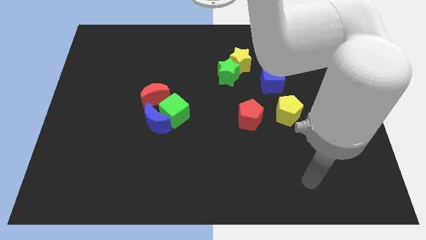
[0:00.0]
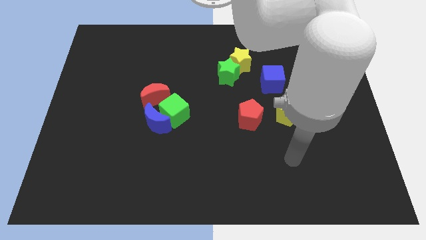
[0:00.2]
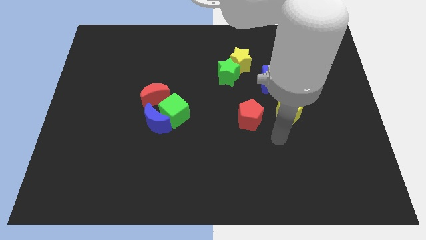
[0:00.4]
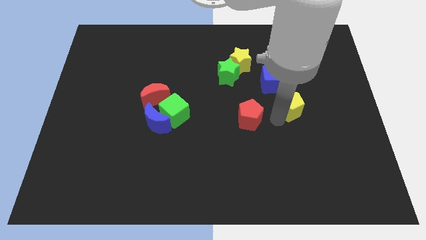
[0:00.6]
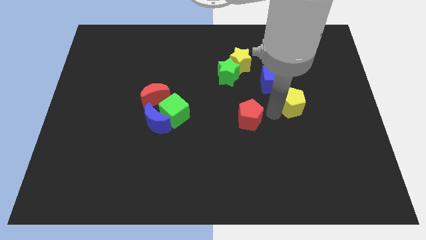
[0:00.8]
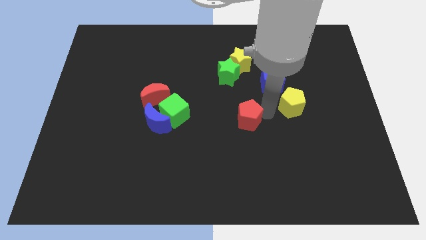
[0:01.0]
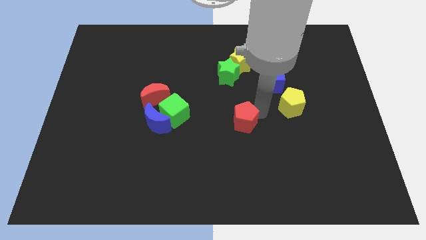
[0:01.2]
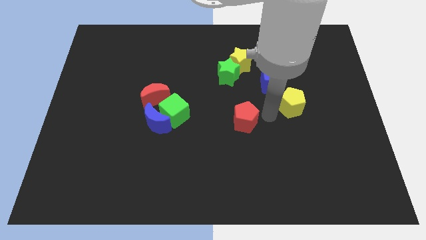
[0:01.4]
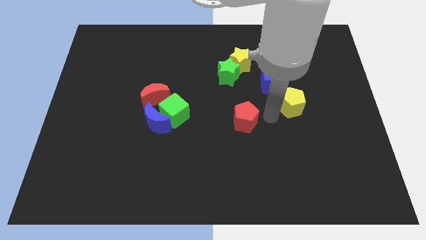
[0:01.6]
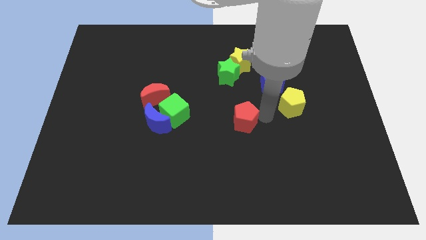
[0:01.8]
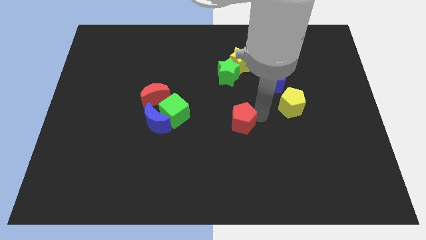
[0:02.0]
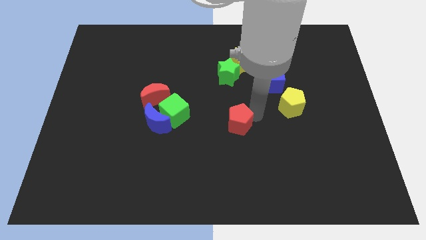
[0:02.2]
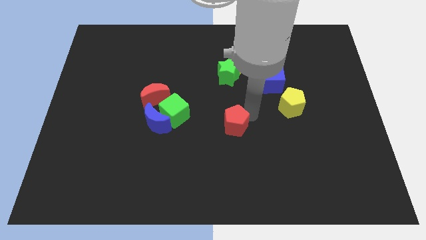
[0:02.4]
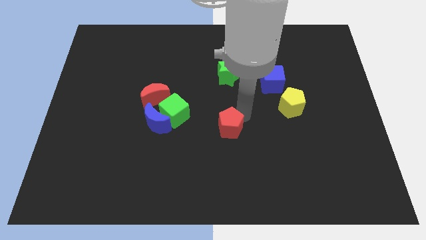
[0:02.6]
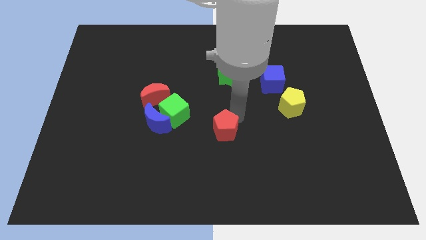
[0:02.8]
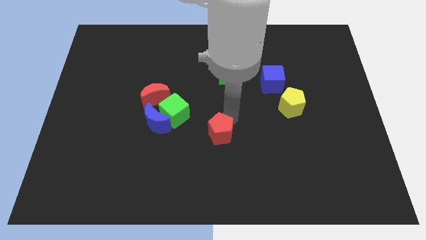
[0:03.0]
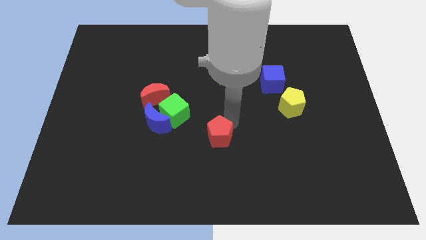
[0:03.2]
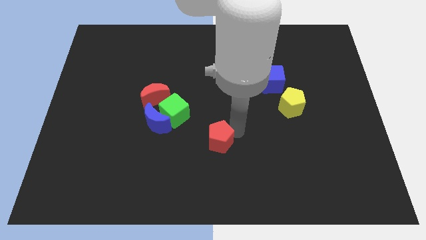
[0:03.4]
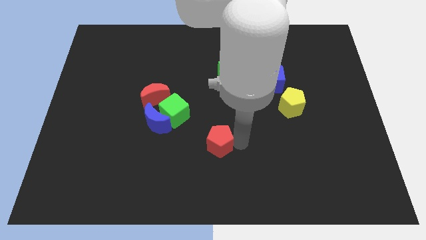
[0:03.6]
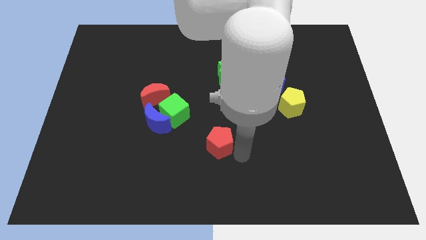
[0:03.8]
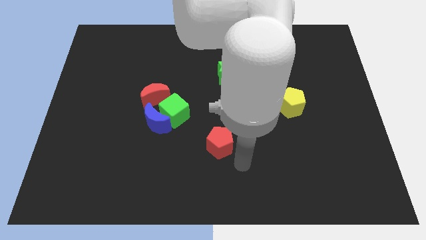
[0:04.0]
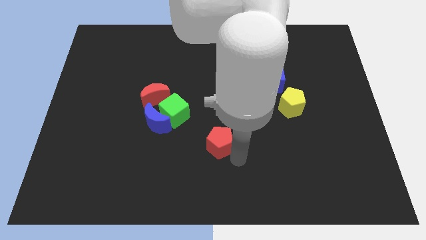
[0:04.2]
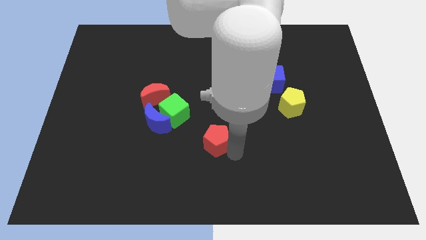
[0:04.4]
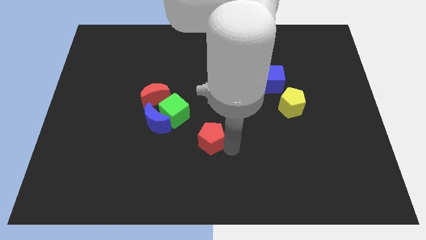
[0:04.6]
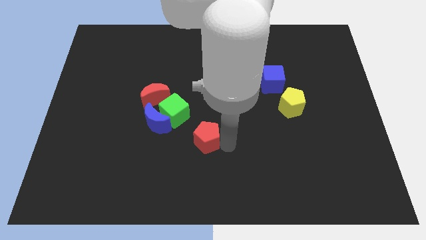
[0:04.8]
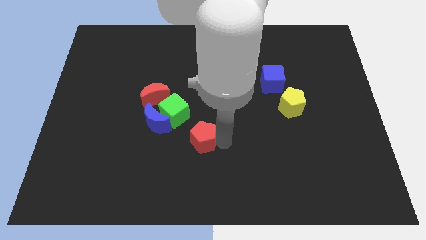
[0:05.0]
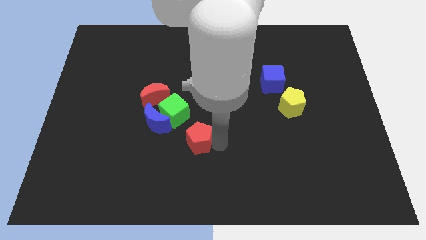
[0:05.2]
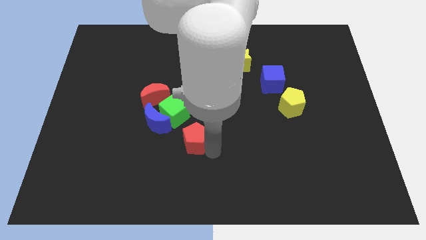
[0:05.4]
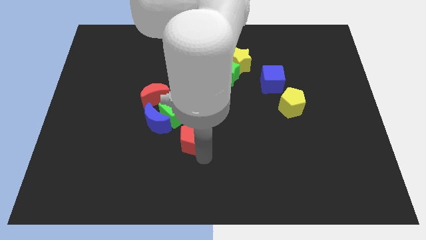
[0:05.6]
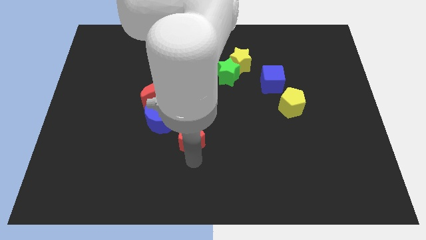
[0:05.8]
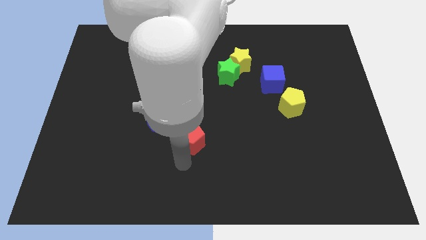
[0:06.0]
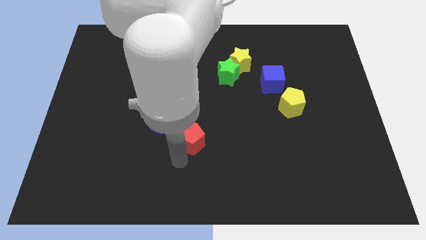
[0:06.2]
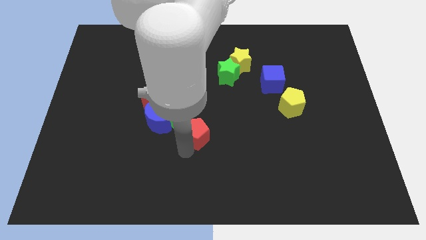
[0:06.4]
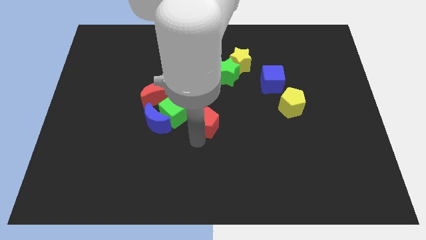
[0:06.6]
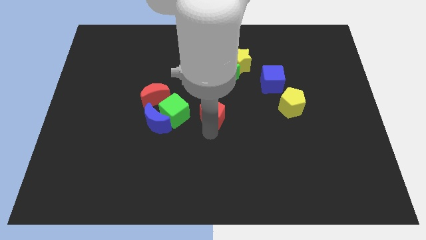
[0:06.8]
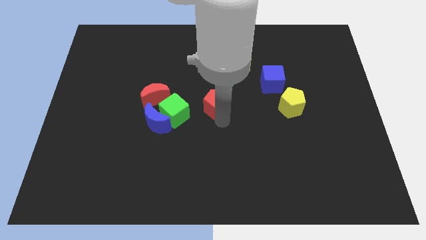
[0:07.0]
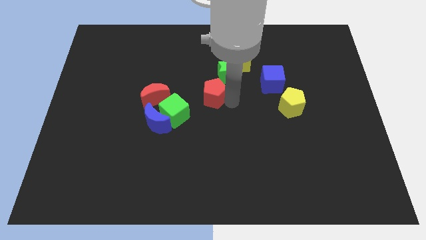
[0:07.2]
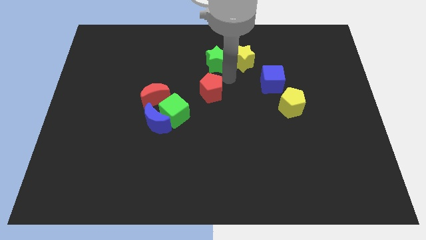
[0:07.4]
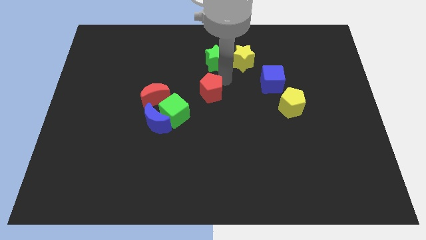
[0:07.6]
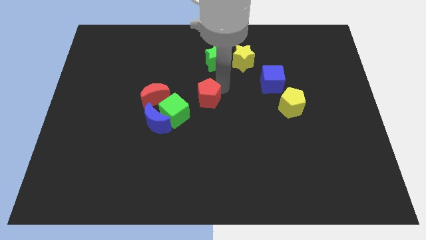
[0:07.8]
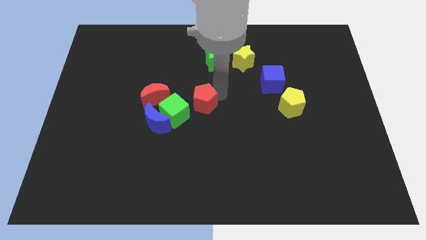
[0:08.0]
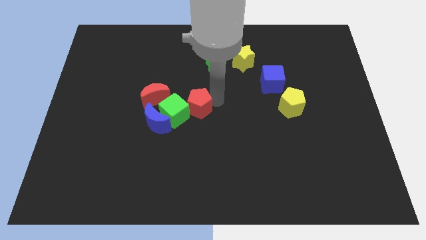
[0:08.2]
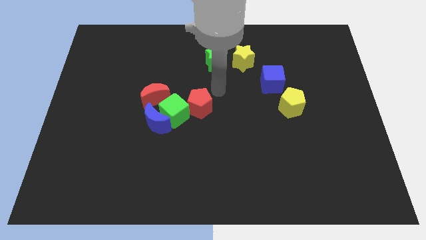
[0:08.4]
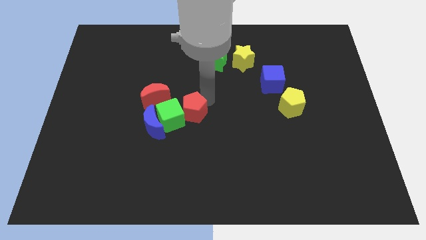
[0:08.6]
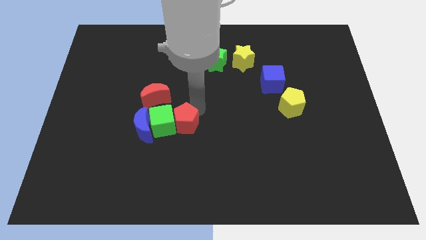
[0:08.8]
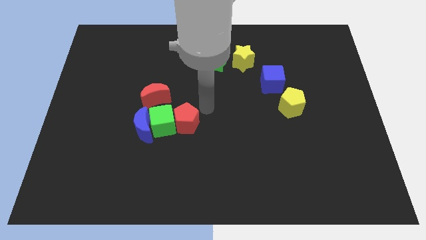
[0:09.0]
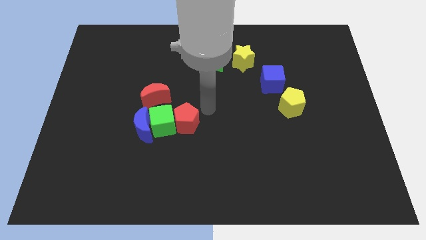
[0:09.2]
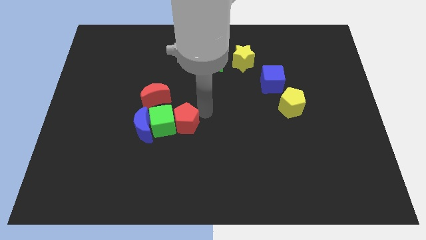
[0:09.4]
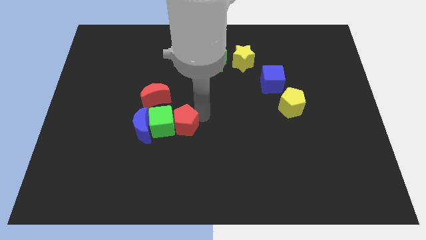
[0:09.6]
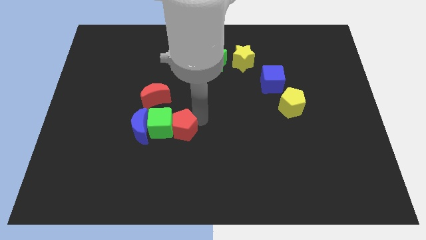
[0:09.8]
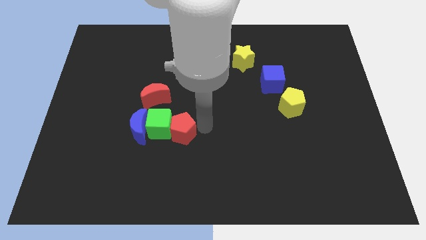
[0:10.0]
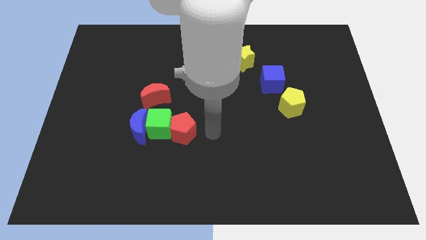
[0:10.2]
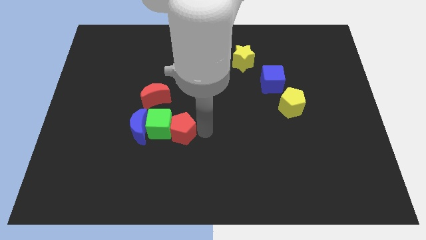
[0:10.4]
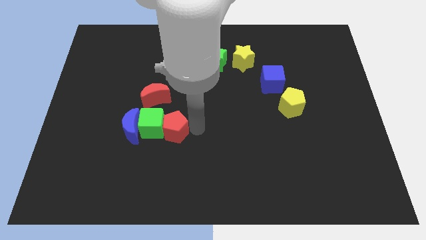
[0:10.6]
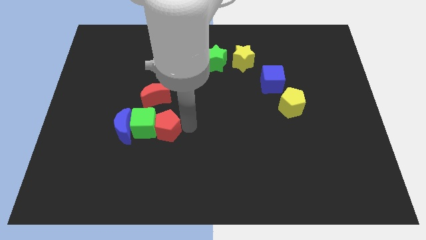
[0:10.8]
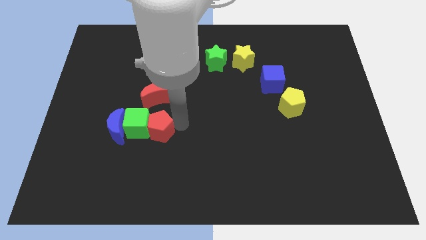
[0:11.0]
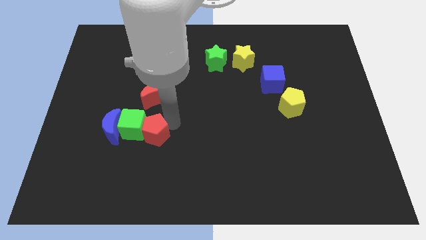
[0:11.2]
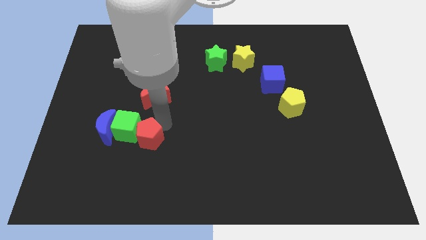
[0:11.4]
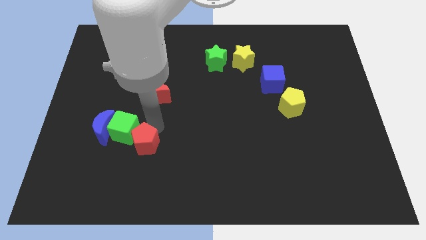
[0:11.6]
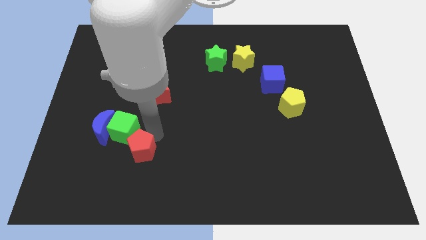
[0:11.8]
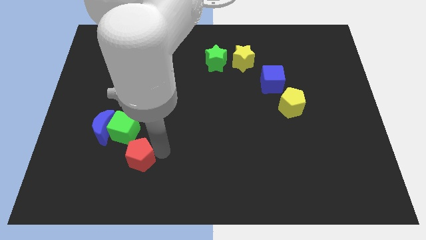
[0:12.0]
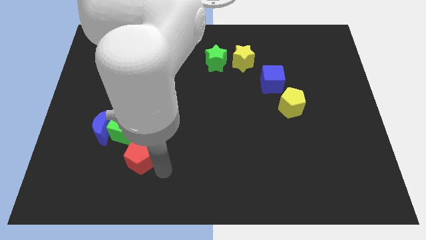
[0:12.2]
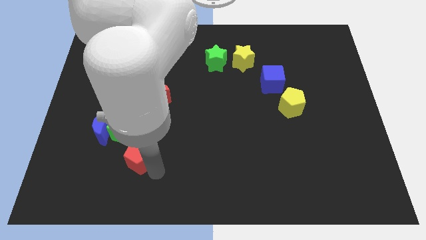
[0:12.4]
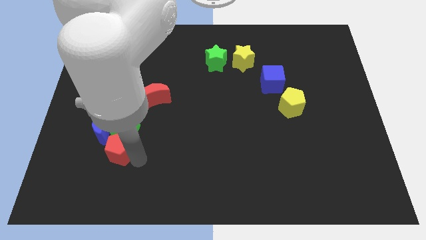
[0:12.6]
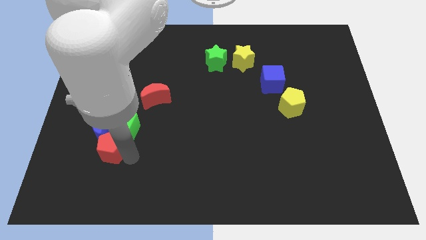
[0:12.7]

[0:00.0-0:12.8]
slide the red pentagon towards the blue moon

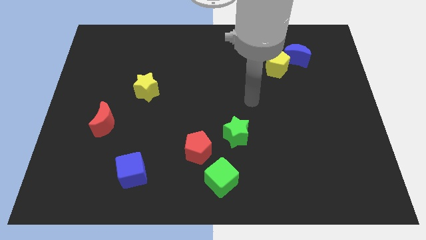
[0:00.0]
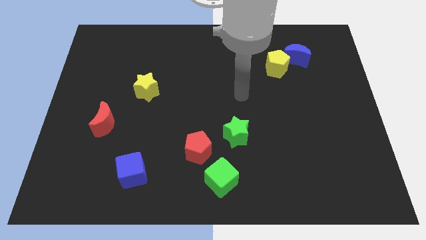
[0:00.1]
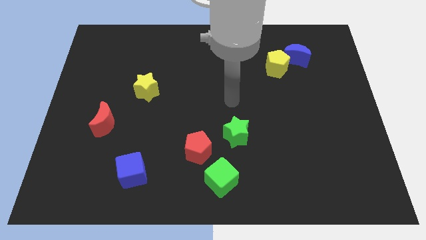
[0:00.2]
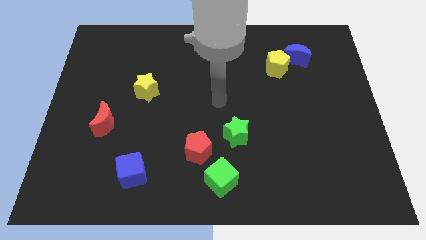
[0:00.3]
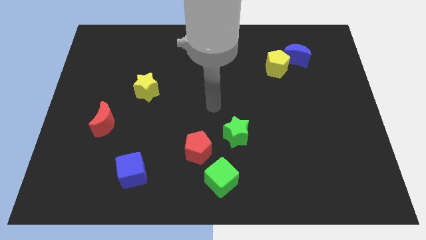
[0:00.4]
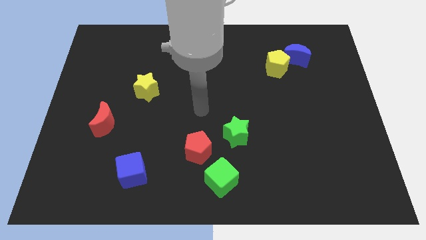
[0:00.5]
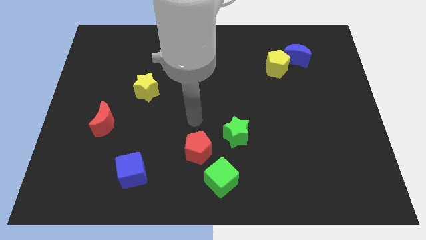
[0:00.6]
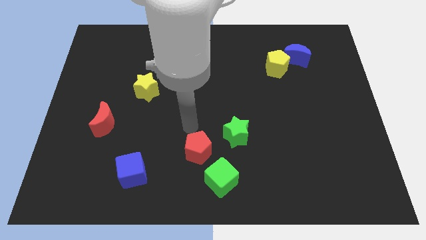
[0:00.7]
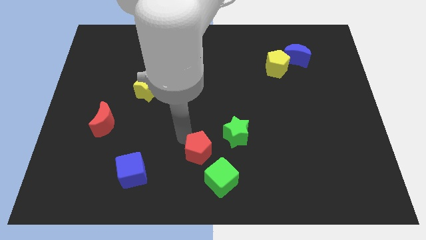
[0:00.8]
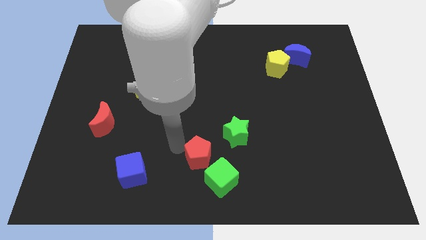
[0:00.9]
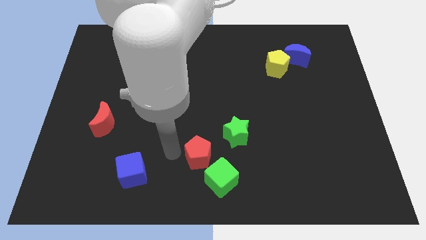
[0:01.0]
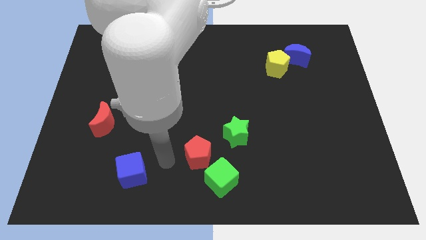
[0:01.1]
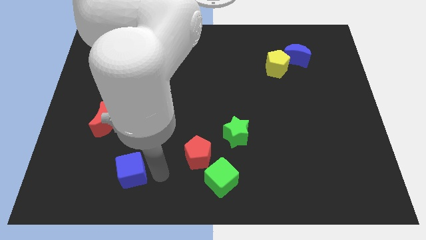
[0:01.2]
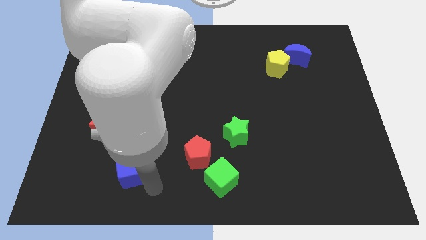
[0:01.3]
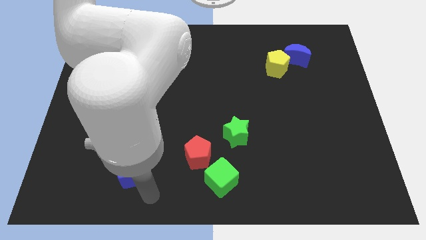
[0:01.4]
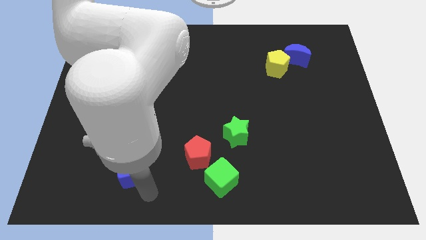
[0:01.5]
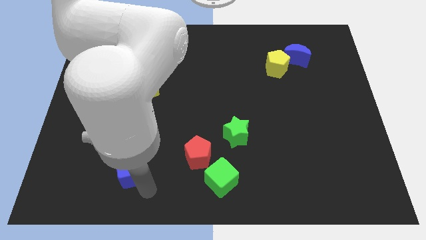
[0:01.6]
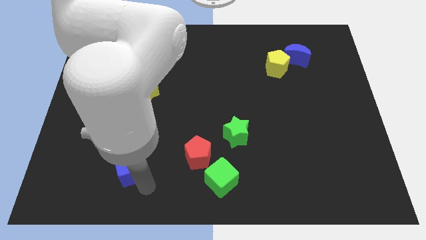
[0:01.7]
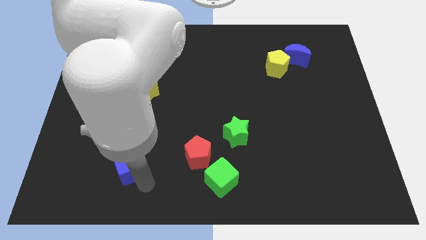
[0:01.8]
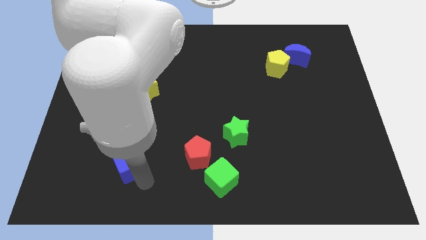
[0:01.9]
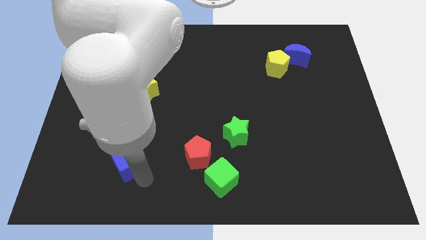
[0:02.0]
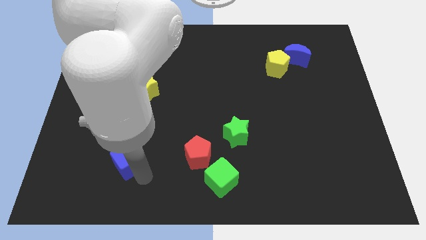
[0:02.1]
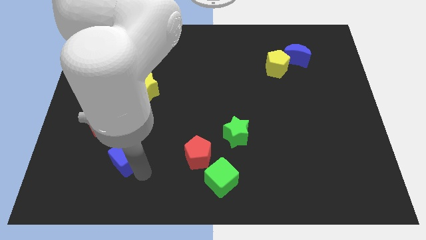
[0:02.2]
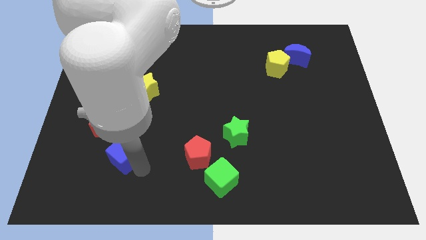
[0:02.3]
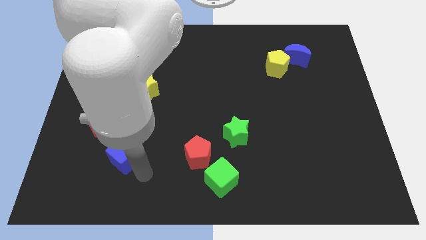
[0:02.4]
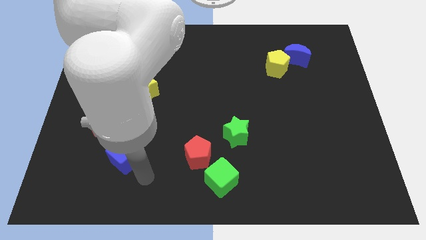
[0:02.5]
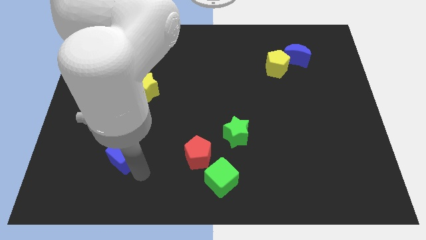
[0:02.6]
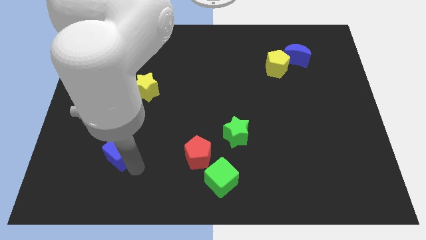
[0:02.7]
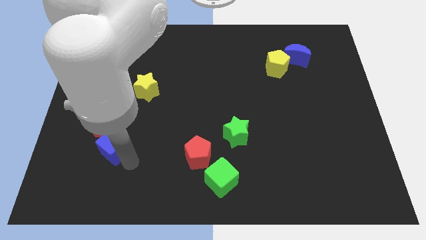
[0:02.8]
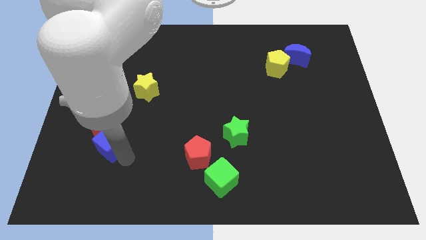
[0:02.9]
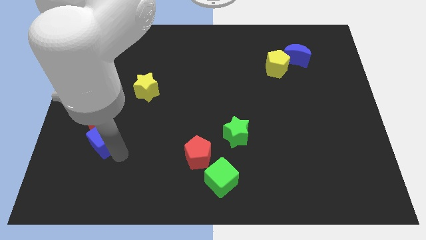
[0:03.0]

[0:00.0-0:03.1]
slide the blue cube close to the red moon
